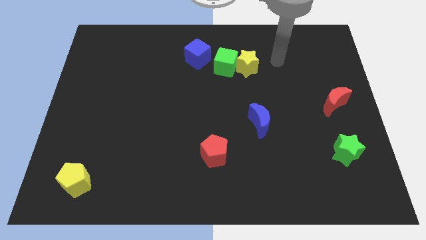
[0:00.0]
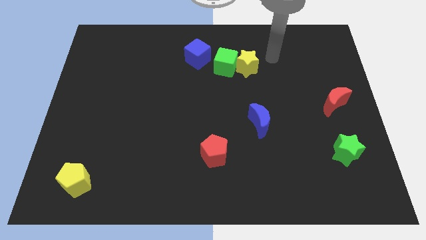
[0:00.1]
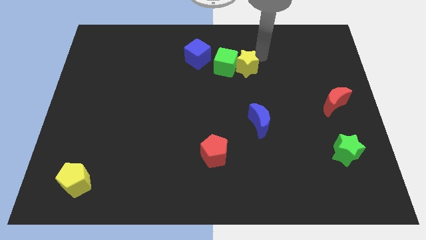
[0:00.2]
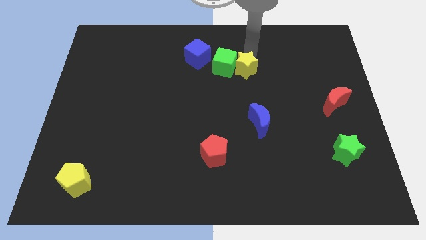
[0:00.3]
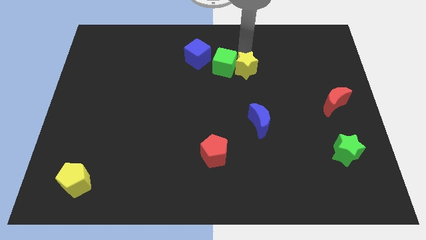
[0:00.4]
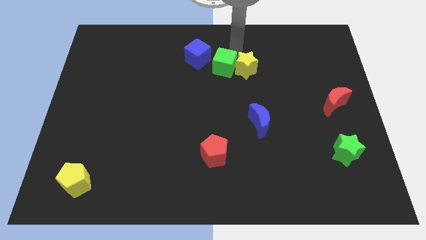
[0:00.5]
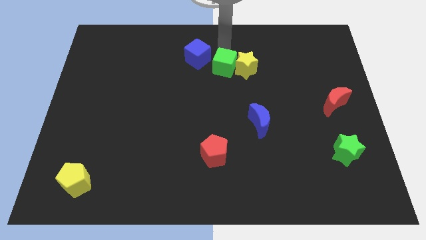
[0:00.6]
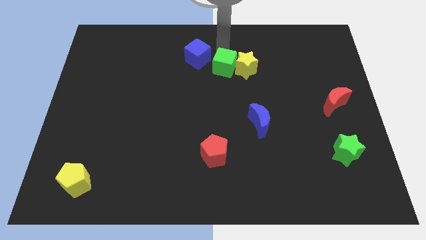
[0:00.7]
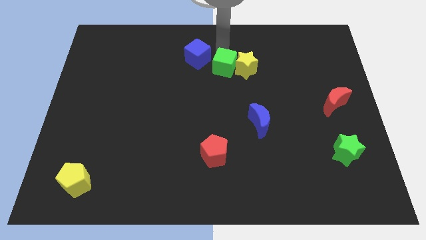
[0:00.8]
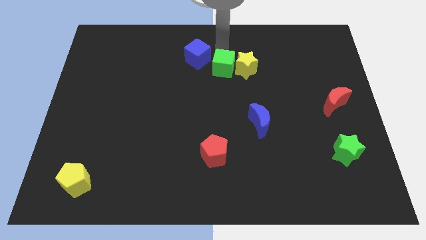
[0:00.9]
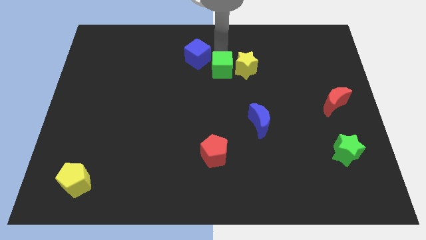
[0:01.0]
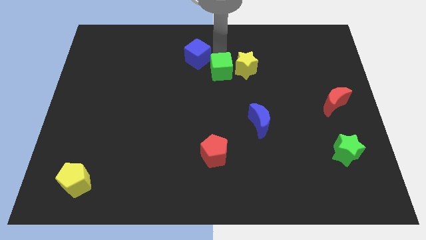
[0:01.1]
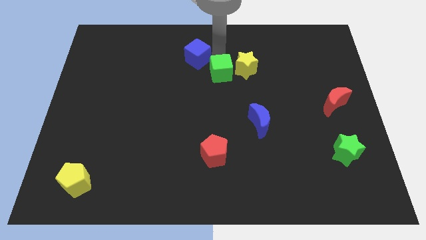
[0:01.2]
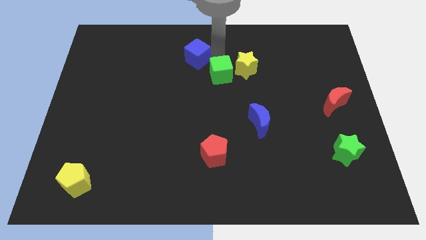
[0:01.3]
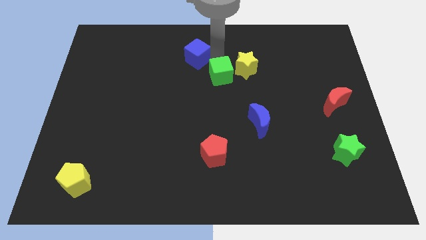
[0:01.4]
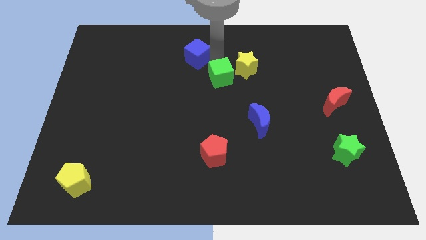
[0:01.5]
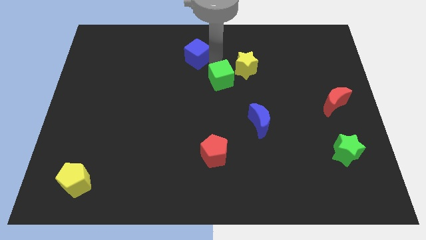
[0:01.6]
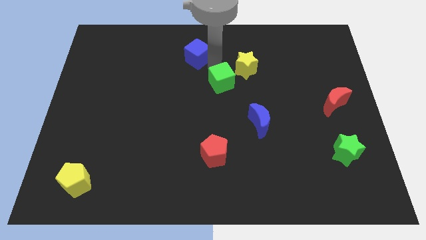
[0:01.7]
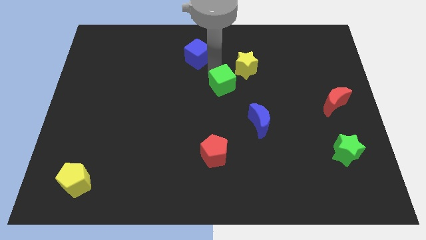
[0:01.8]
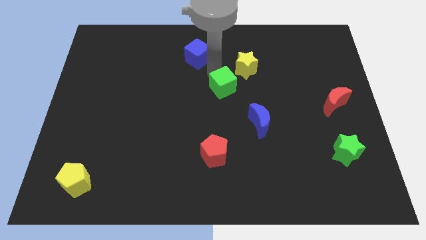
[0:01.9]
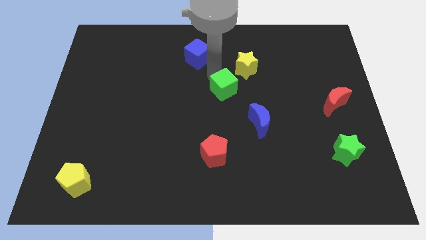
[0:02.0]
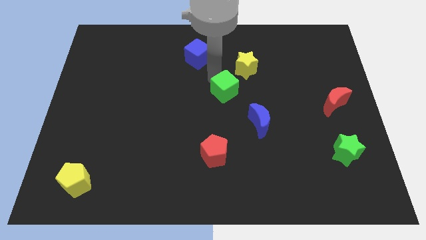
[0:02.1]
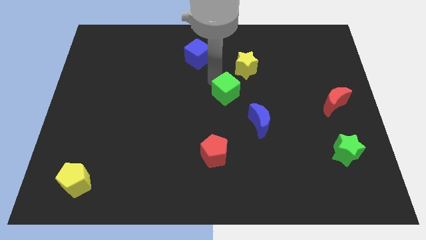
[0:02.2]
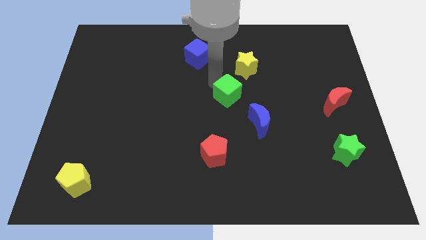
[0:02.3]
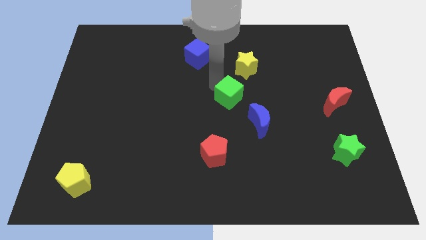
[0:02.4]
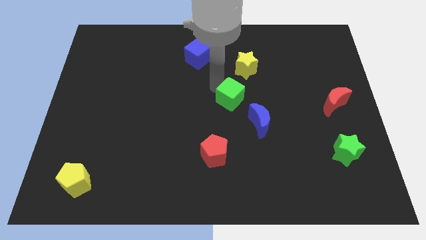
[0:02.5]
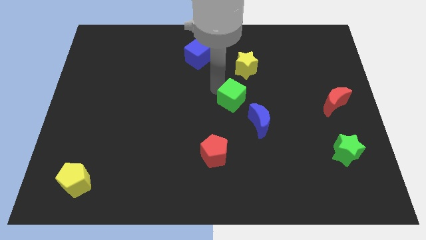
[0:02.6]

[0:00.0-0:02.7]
slightly slide the green cube down and to the right diagonally

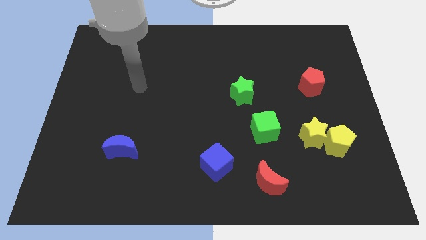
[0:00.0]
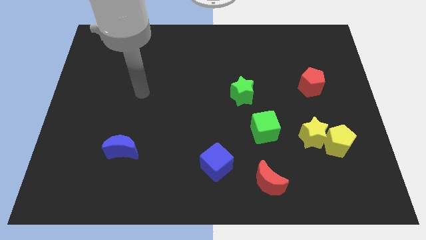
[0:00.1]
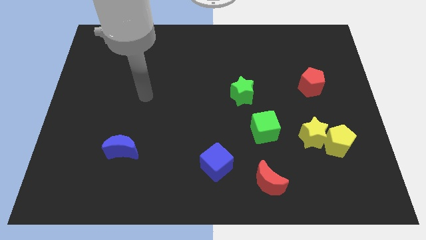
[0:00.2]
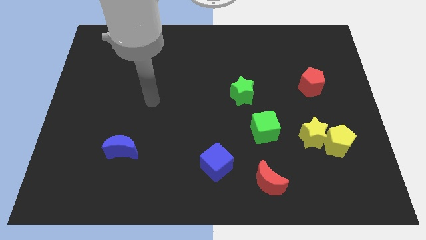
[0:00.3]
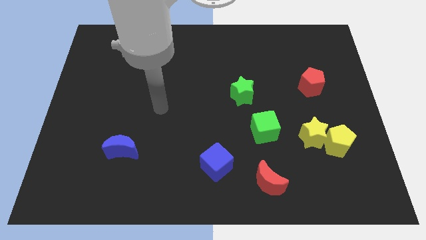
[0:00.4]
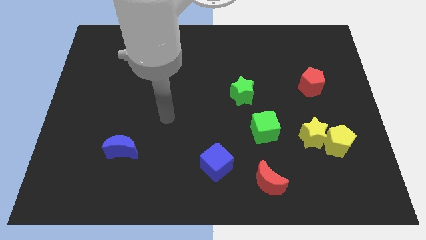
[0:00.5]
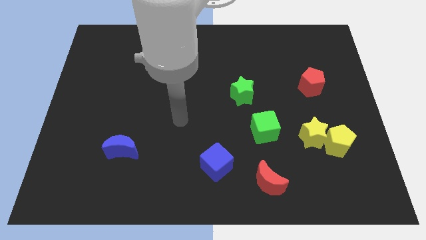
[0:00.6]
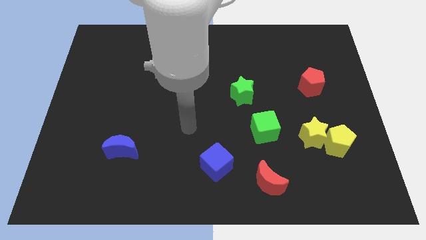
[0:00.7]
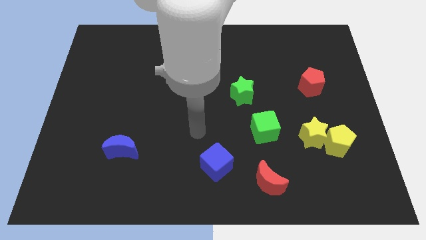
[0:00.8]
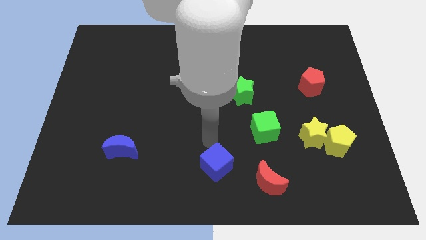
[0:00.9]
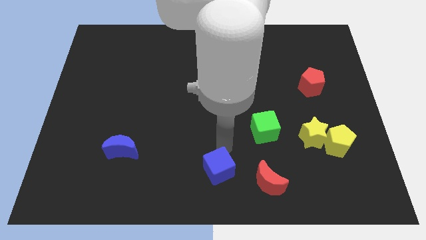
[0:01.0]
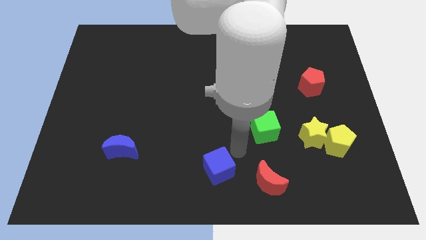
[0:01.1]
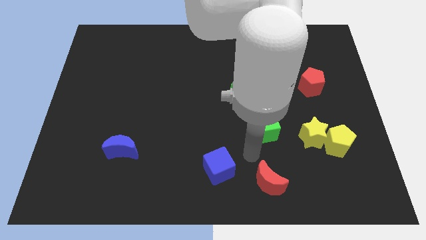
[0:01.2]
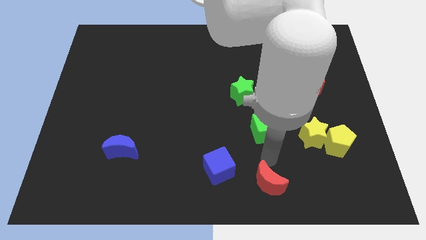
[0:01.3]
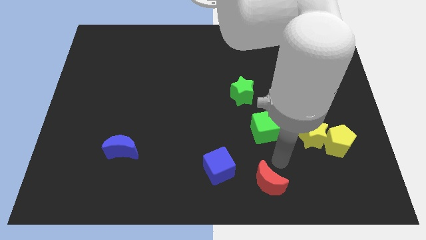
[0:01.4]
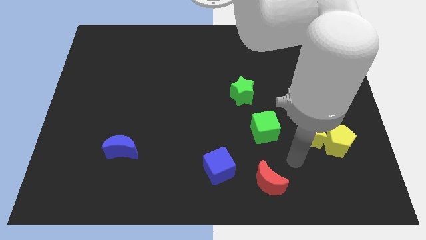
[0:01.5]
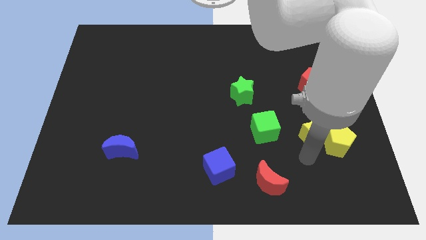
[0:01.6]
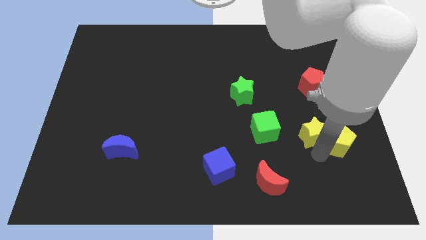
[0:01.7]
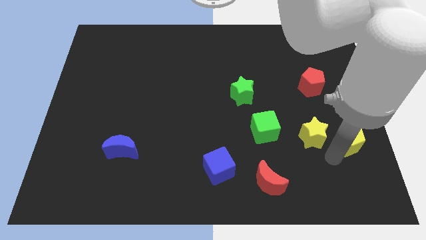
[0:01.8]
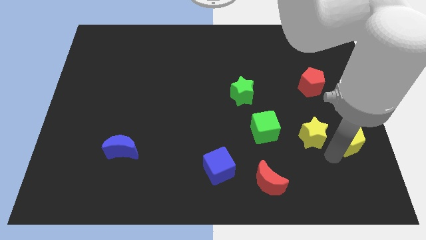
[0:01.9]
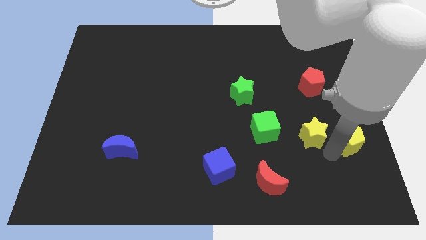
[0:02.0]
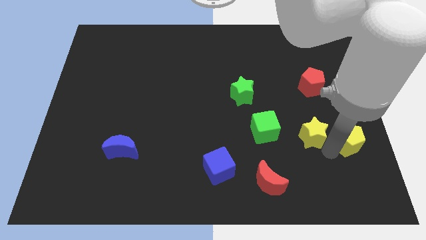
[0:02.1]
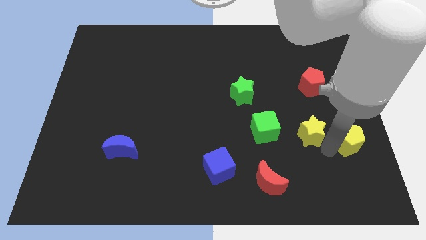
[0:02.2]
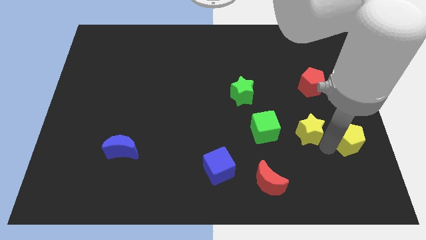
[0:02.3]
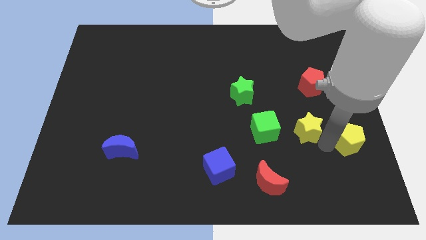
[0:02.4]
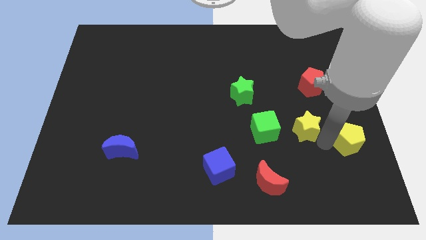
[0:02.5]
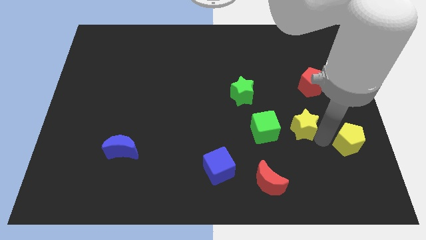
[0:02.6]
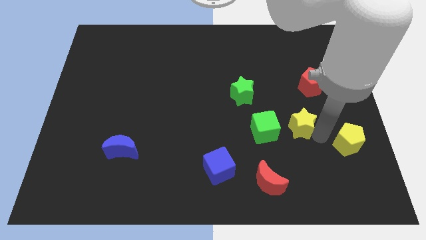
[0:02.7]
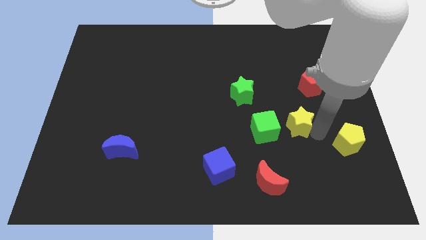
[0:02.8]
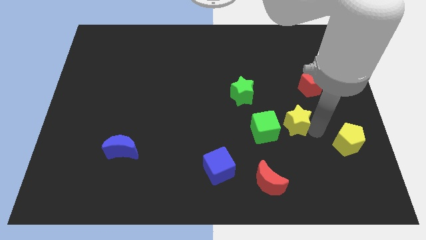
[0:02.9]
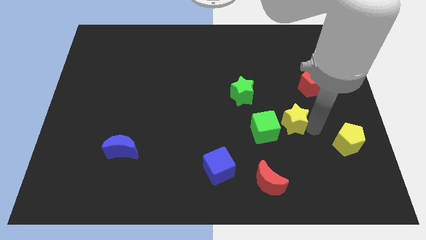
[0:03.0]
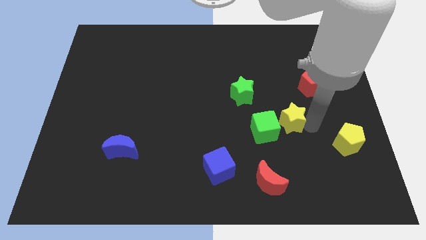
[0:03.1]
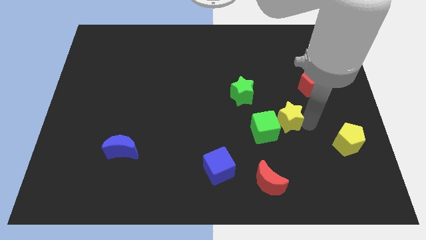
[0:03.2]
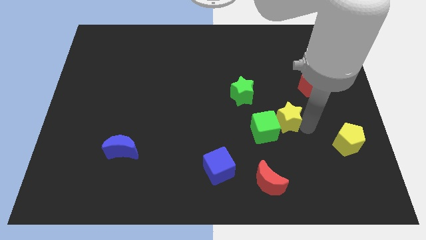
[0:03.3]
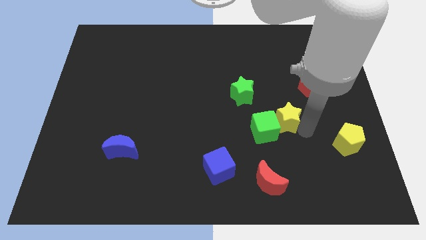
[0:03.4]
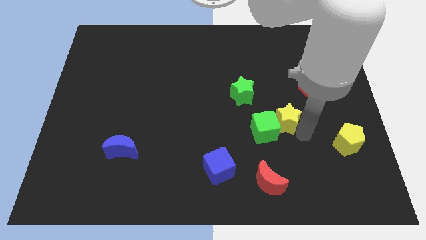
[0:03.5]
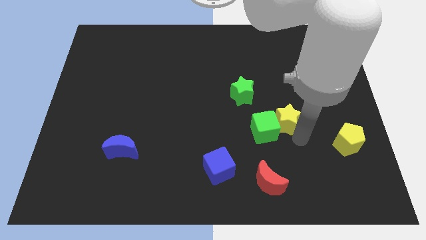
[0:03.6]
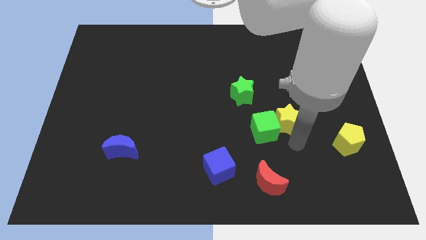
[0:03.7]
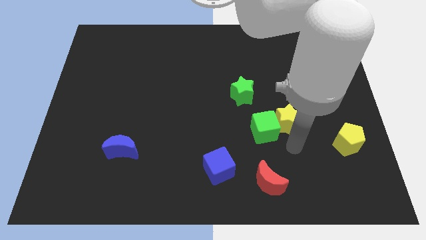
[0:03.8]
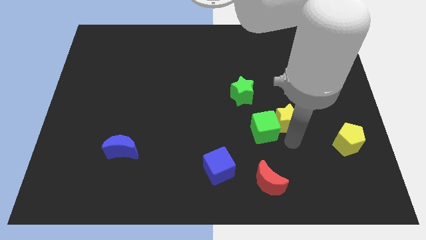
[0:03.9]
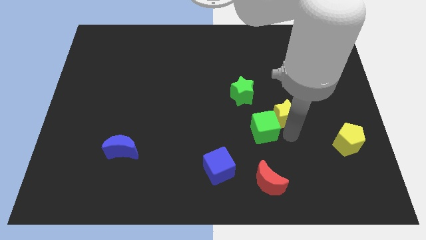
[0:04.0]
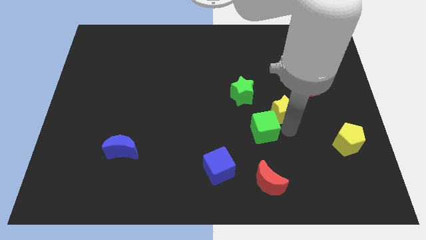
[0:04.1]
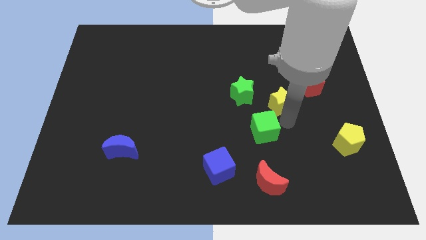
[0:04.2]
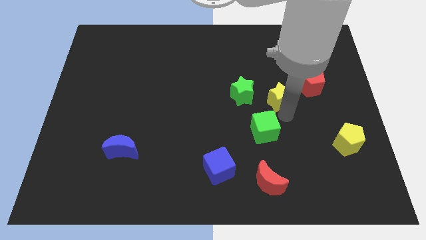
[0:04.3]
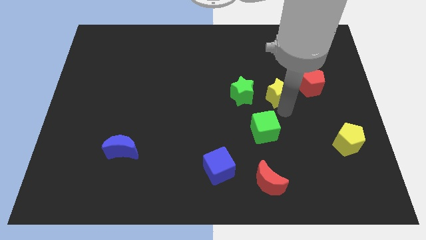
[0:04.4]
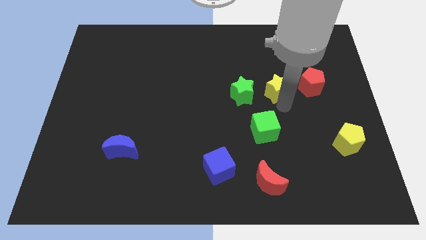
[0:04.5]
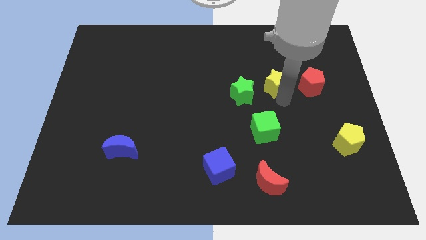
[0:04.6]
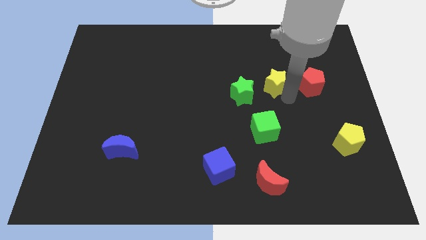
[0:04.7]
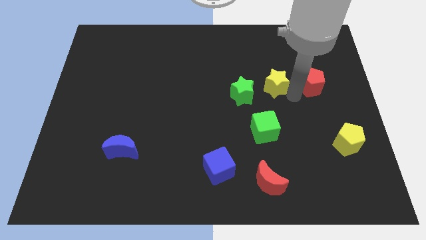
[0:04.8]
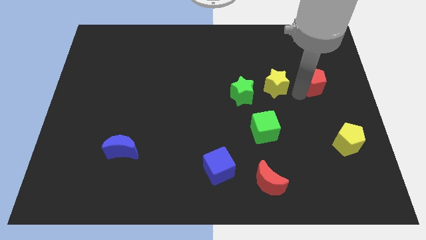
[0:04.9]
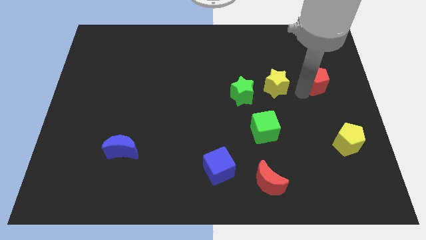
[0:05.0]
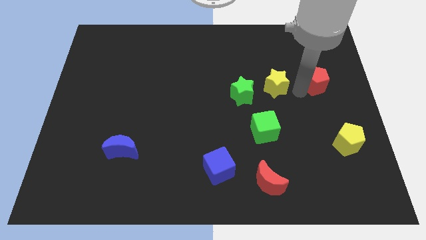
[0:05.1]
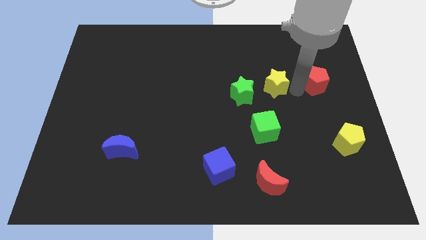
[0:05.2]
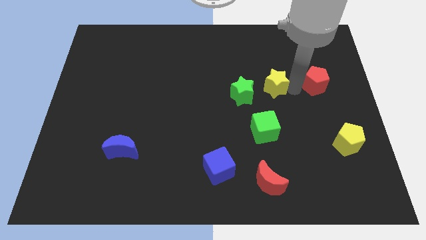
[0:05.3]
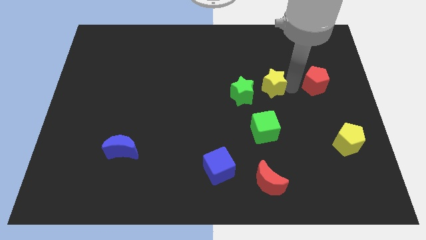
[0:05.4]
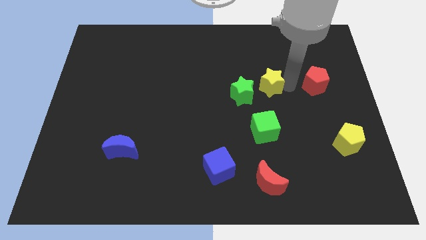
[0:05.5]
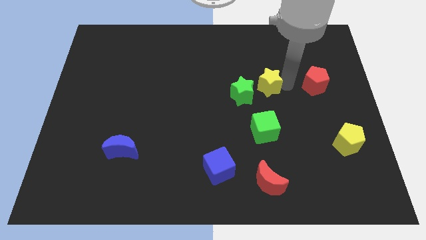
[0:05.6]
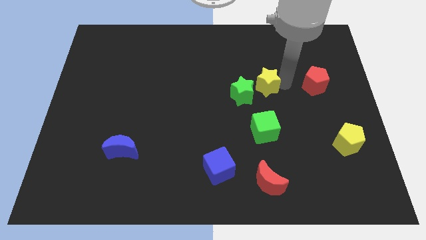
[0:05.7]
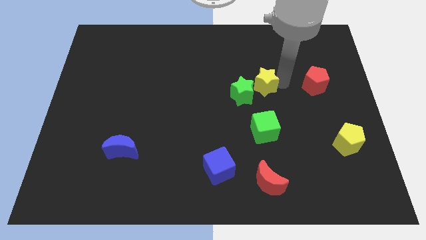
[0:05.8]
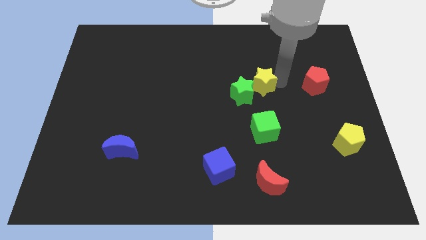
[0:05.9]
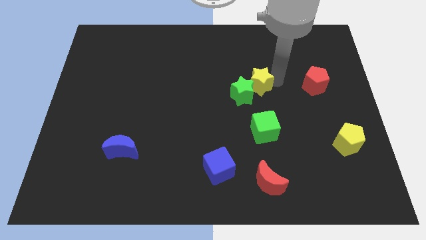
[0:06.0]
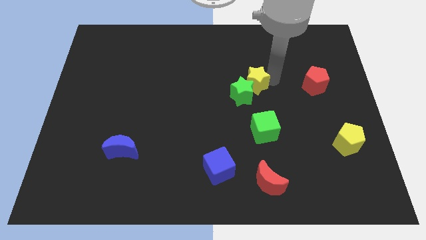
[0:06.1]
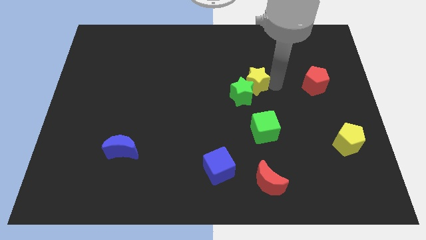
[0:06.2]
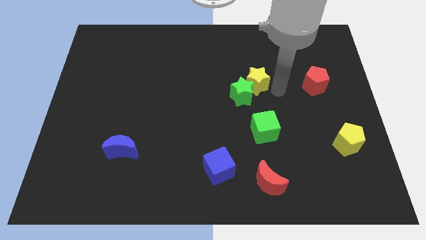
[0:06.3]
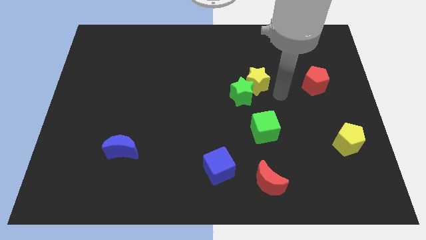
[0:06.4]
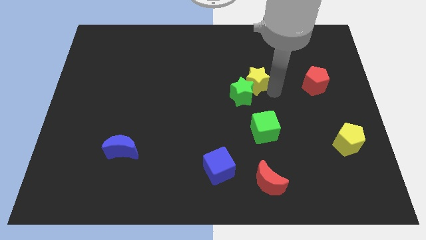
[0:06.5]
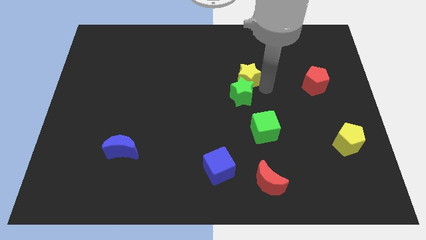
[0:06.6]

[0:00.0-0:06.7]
push the yellow star upwards and left
